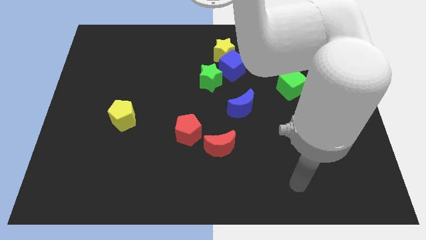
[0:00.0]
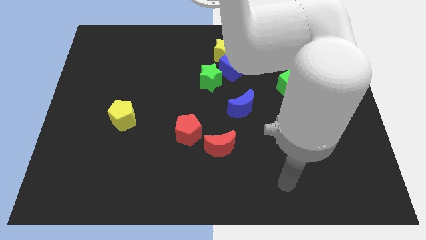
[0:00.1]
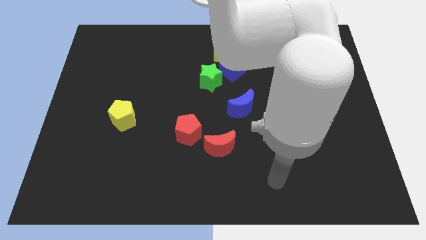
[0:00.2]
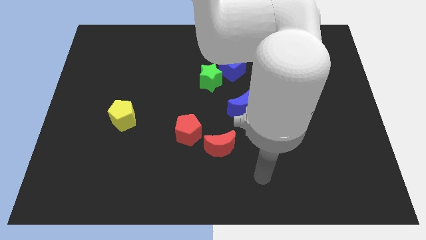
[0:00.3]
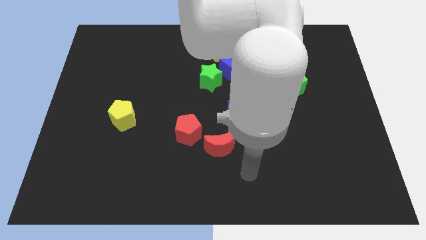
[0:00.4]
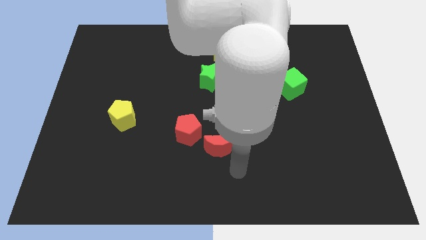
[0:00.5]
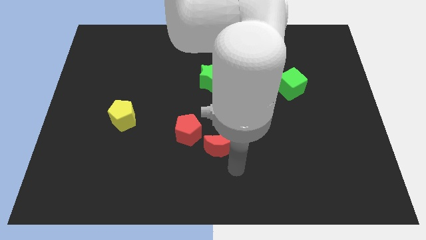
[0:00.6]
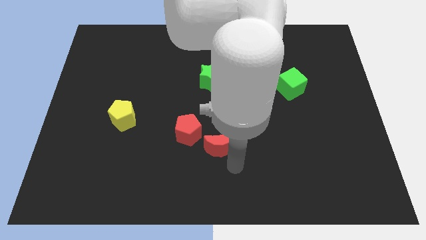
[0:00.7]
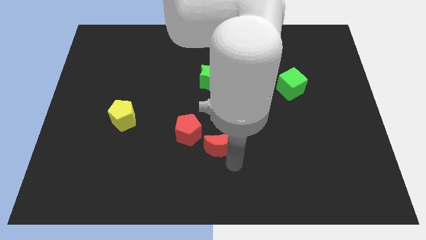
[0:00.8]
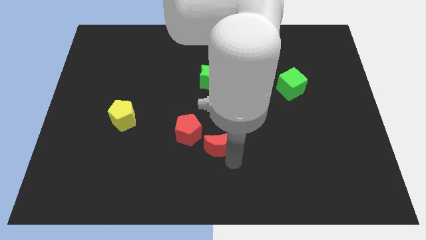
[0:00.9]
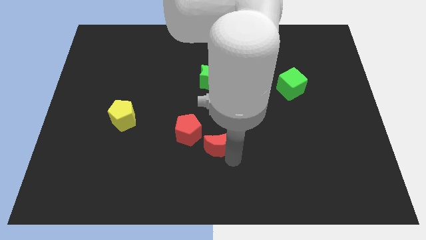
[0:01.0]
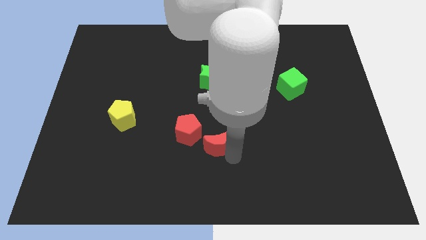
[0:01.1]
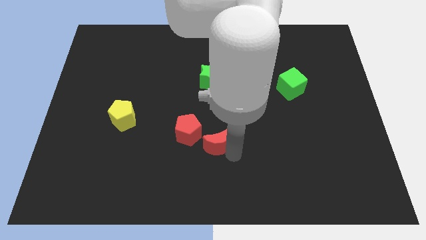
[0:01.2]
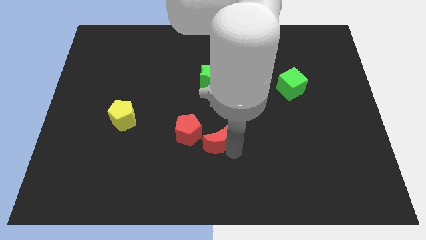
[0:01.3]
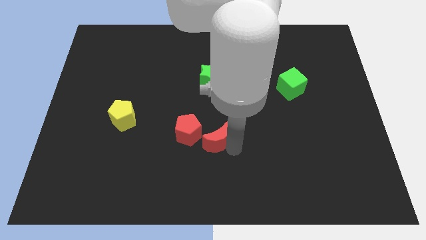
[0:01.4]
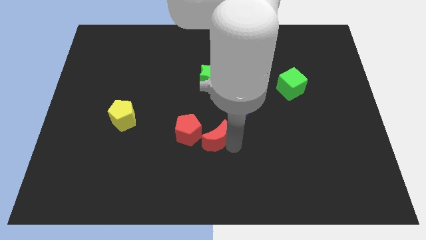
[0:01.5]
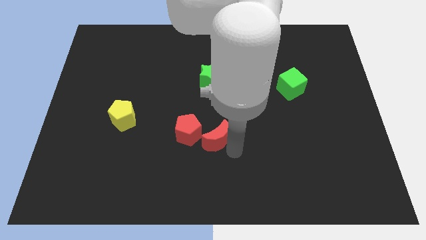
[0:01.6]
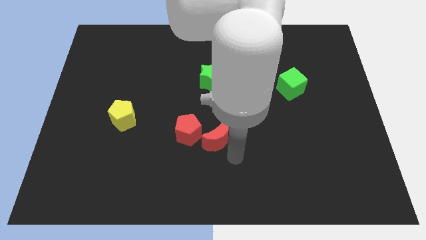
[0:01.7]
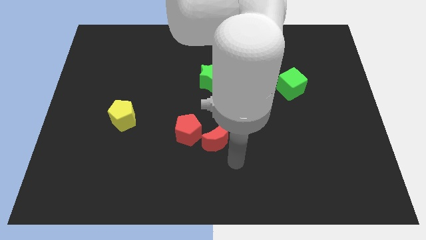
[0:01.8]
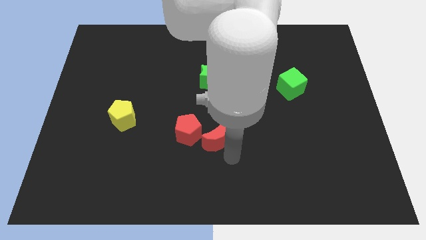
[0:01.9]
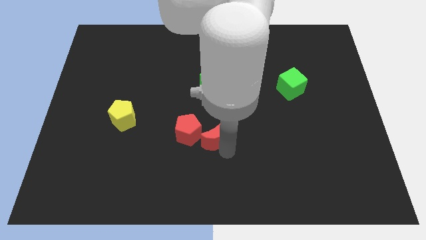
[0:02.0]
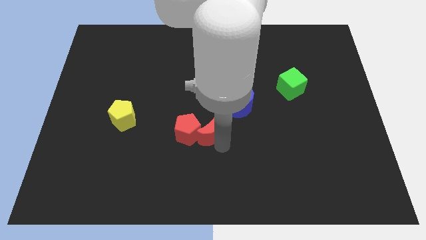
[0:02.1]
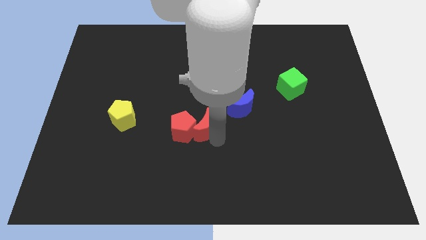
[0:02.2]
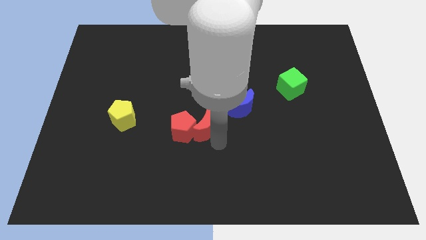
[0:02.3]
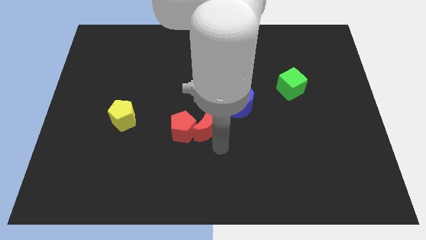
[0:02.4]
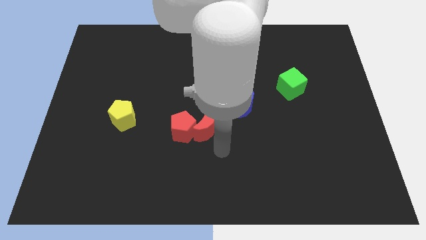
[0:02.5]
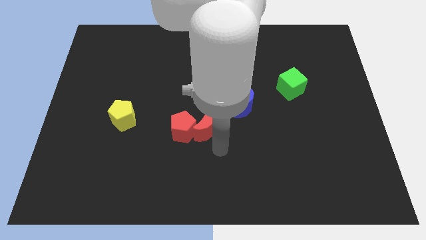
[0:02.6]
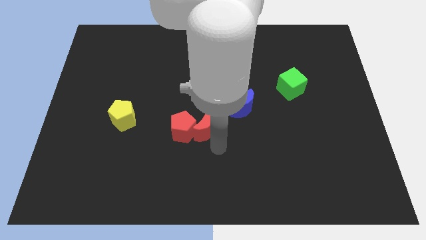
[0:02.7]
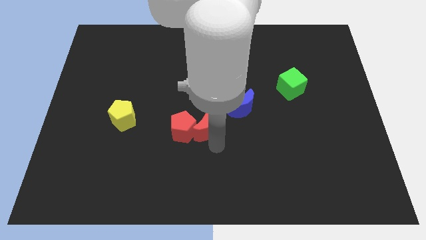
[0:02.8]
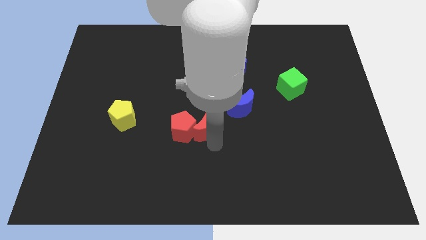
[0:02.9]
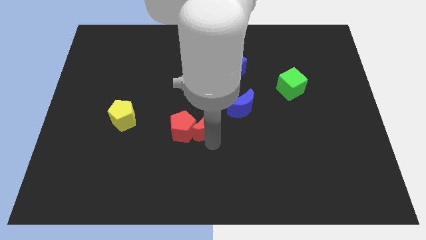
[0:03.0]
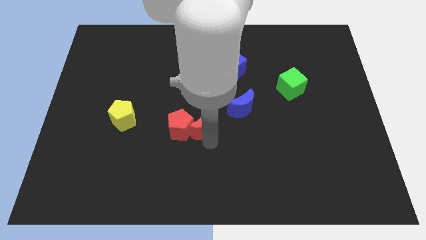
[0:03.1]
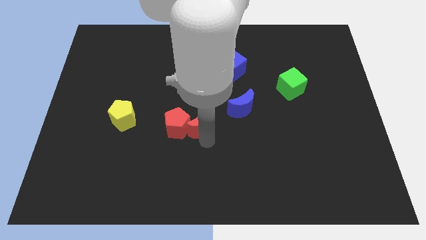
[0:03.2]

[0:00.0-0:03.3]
slightly move the red moon upwards and to the left diagonally

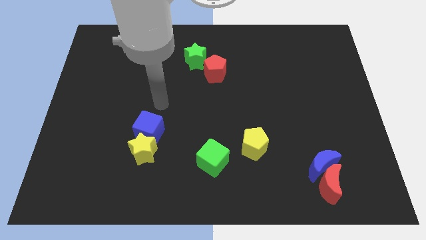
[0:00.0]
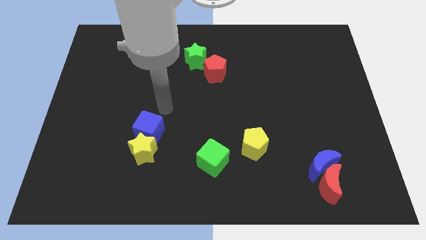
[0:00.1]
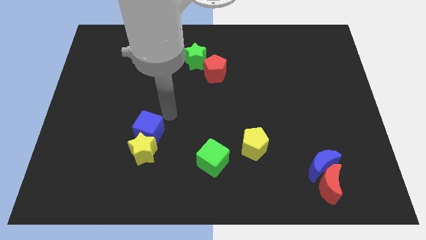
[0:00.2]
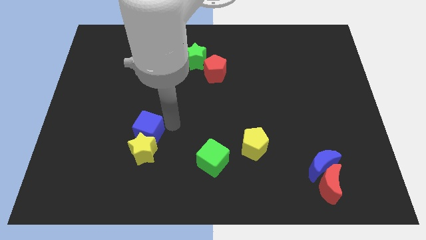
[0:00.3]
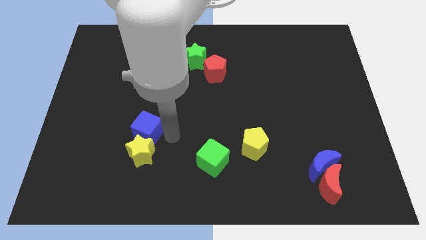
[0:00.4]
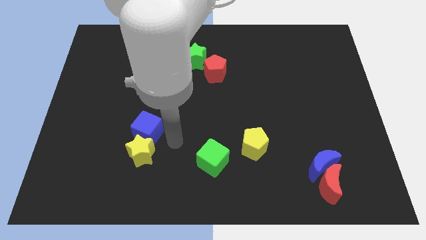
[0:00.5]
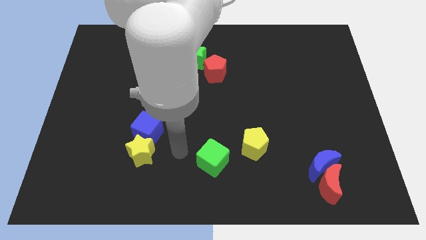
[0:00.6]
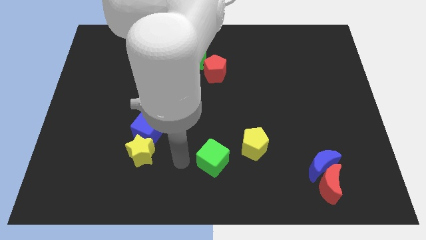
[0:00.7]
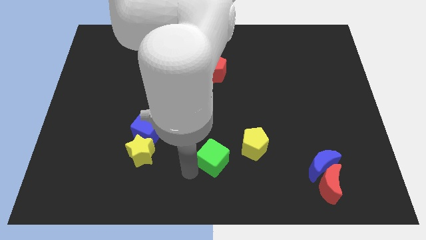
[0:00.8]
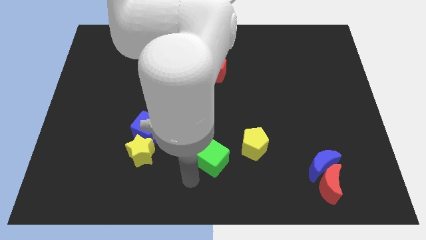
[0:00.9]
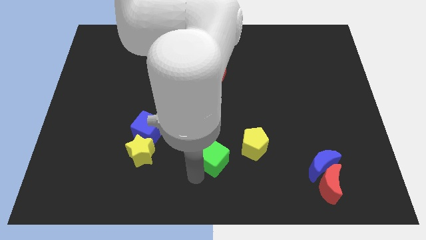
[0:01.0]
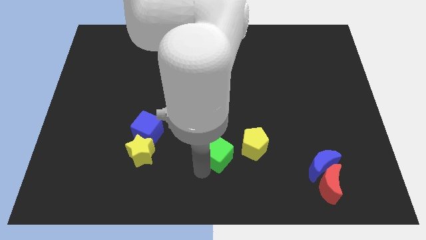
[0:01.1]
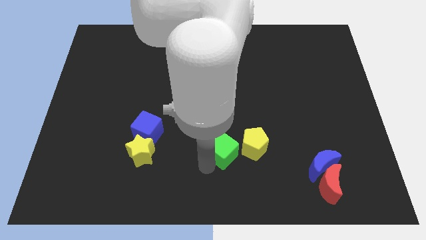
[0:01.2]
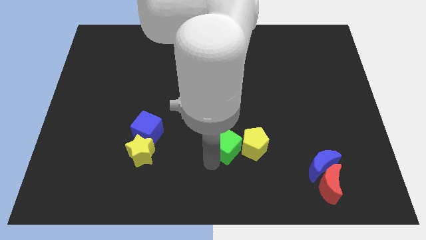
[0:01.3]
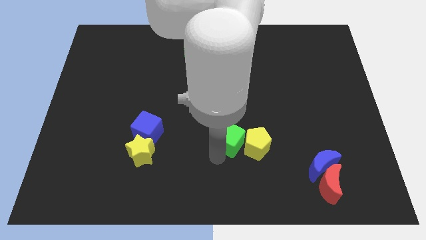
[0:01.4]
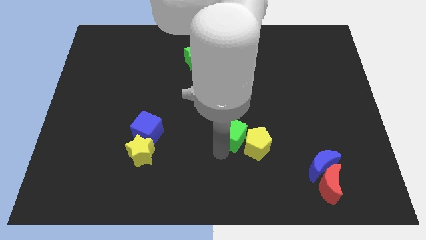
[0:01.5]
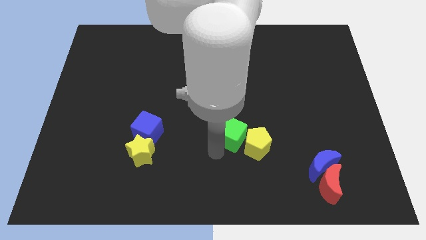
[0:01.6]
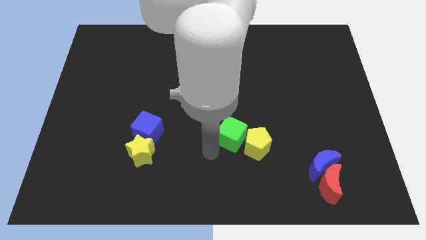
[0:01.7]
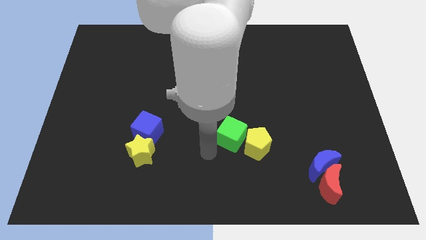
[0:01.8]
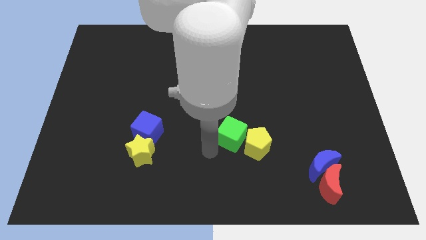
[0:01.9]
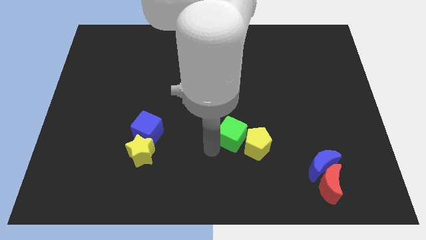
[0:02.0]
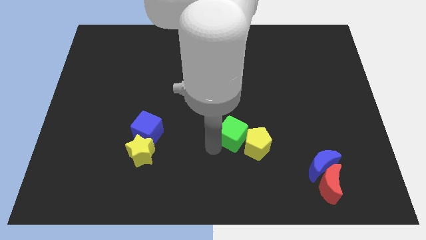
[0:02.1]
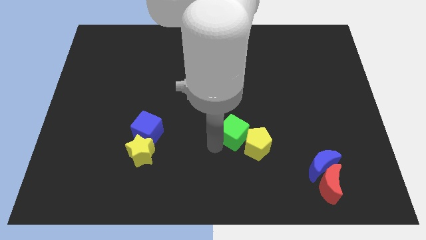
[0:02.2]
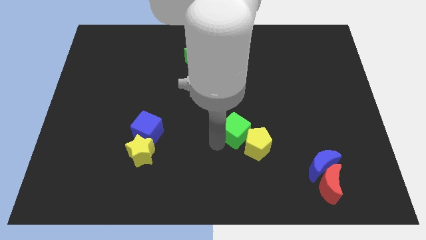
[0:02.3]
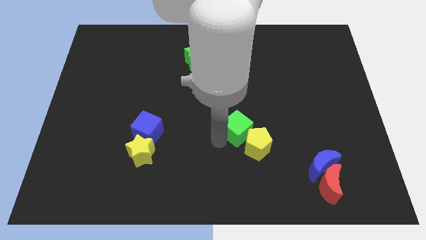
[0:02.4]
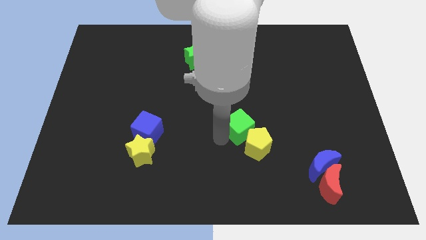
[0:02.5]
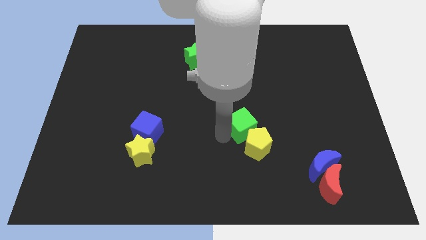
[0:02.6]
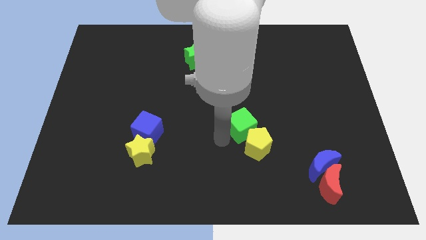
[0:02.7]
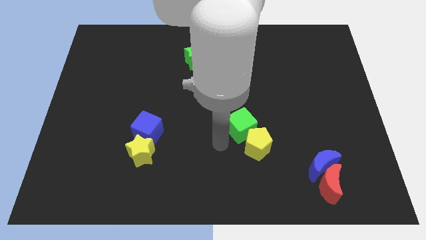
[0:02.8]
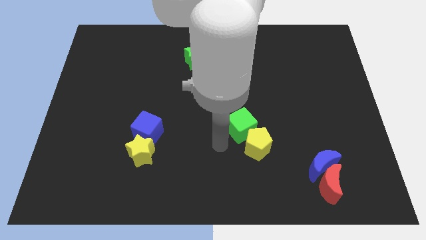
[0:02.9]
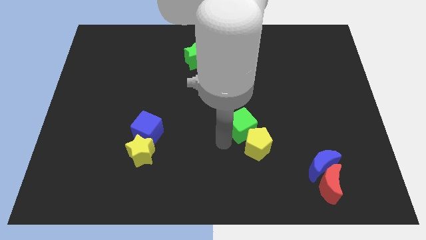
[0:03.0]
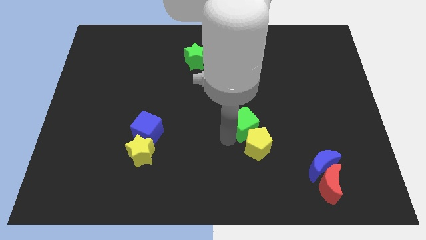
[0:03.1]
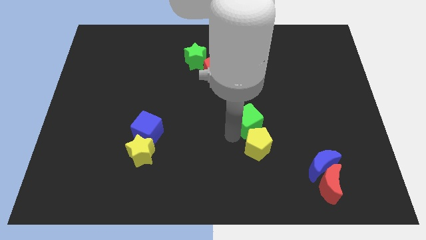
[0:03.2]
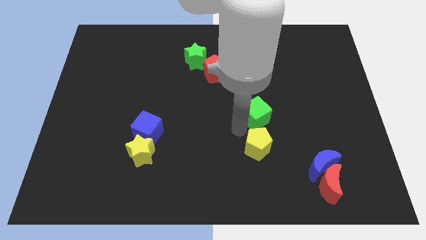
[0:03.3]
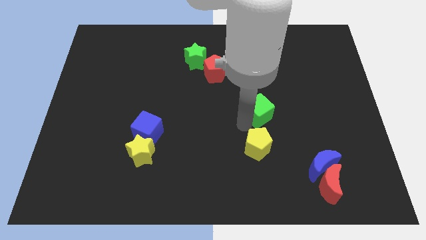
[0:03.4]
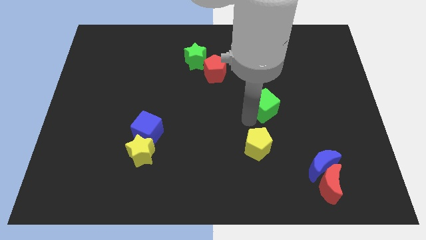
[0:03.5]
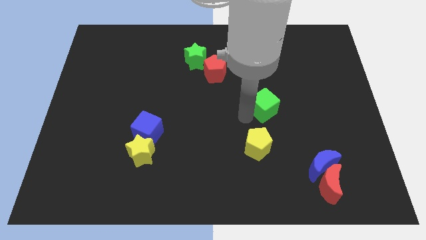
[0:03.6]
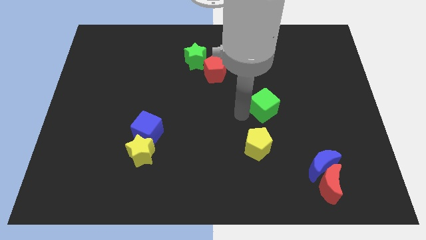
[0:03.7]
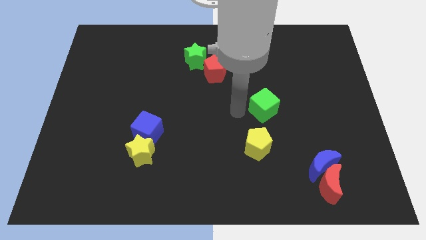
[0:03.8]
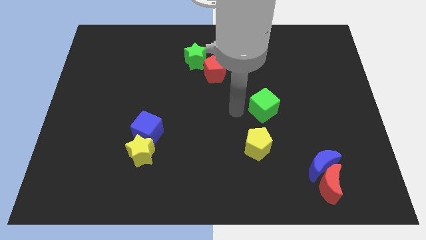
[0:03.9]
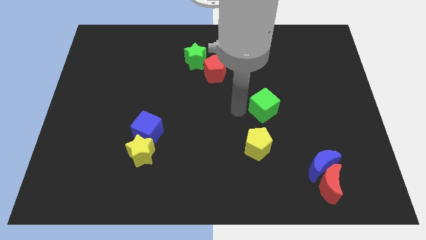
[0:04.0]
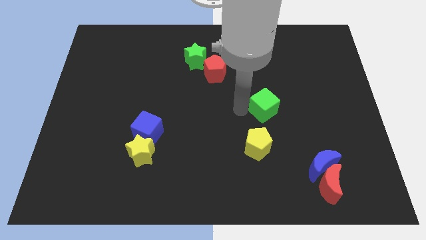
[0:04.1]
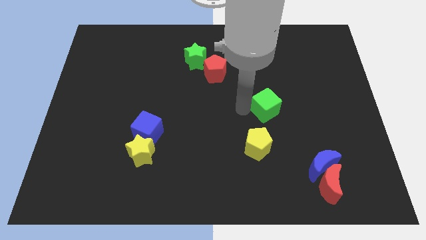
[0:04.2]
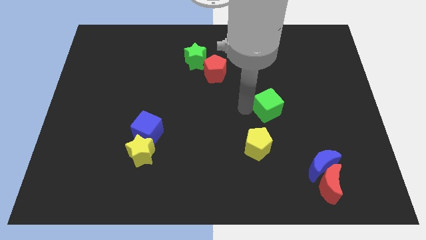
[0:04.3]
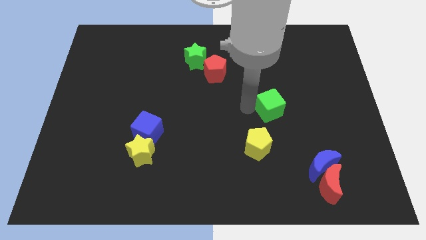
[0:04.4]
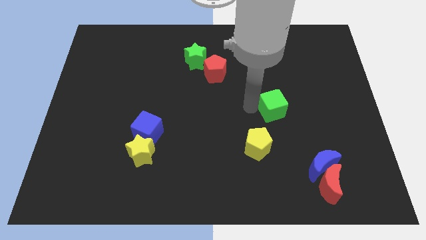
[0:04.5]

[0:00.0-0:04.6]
move the green cube diagonally upwards and to the right
